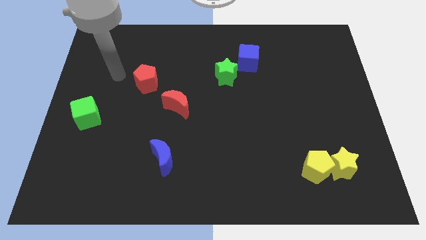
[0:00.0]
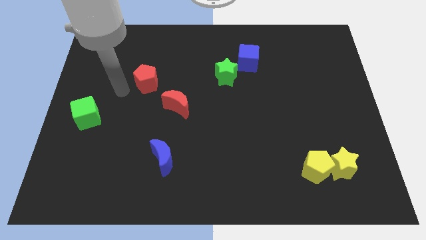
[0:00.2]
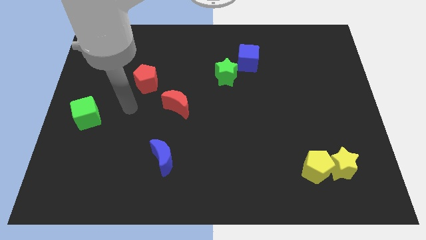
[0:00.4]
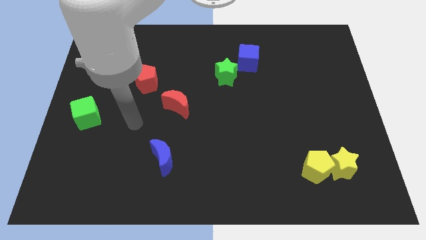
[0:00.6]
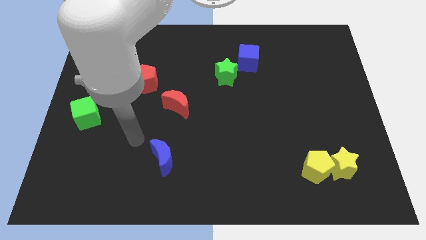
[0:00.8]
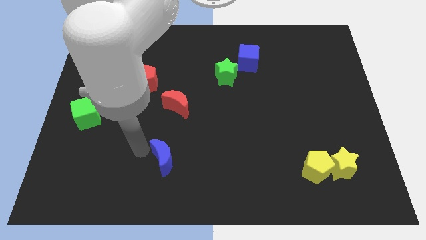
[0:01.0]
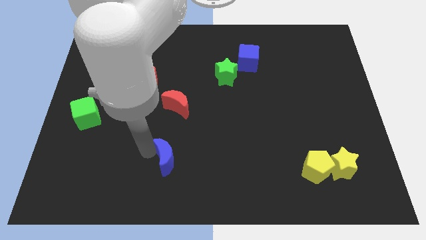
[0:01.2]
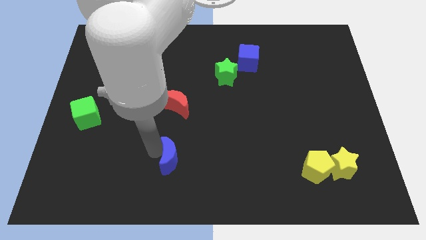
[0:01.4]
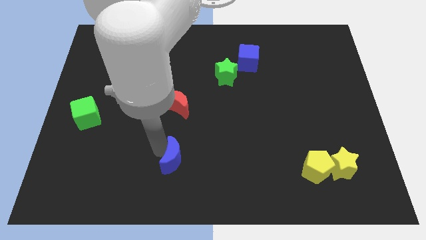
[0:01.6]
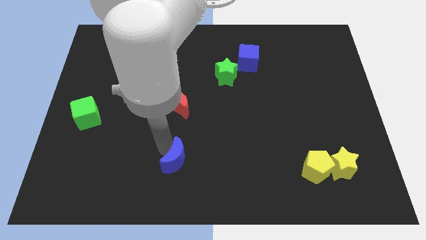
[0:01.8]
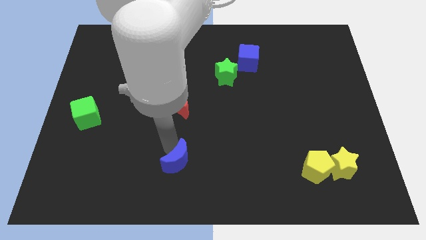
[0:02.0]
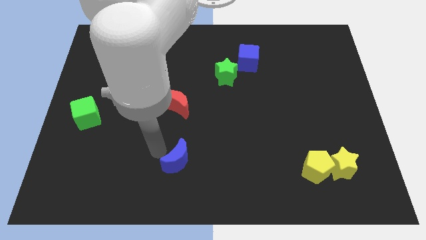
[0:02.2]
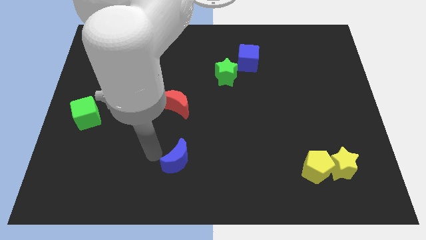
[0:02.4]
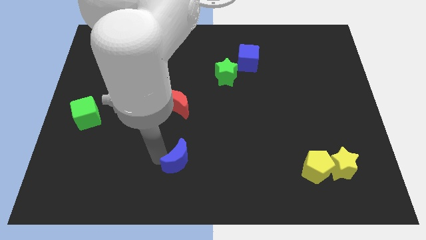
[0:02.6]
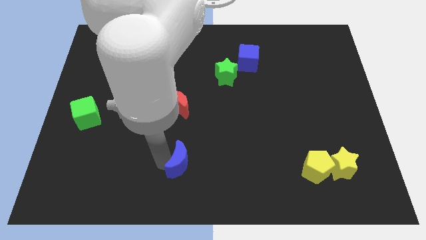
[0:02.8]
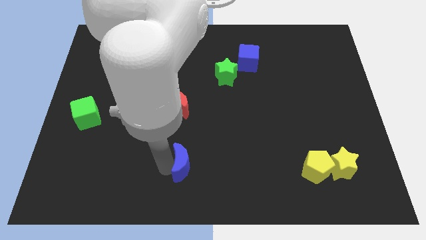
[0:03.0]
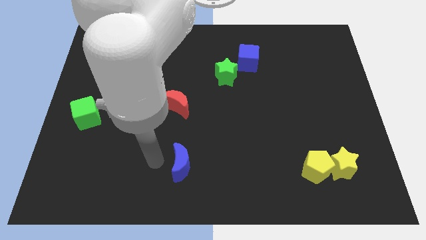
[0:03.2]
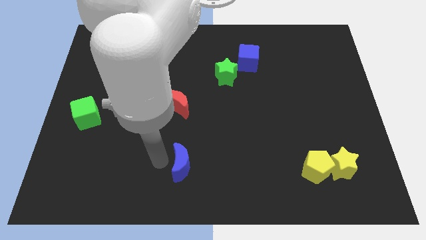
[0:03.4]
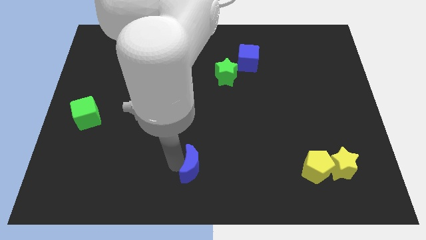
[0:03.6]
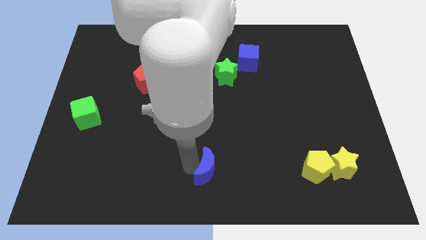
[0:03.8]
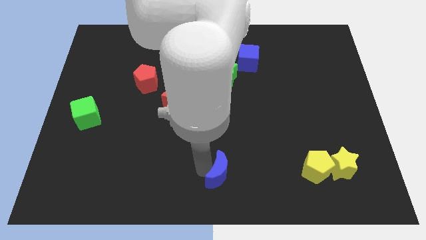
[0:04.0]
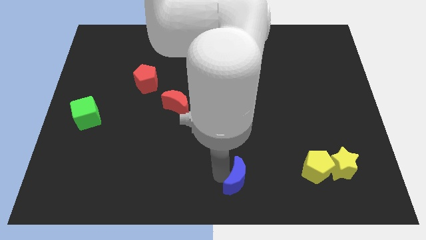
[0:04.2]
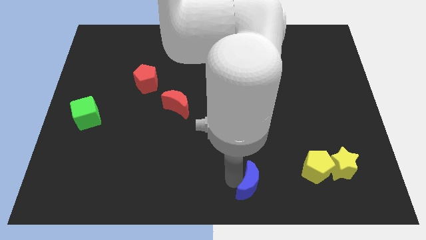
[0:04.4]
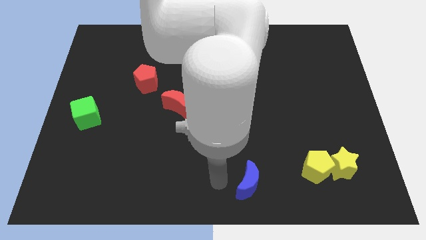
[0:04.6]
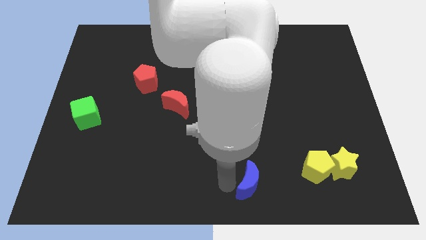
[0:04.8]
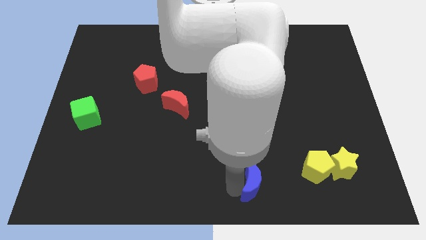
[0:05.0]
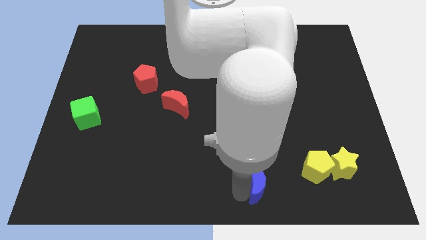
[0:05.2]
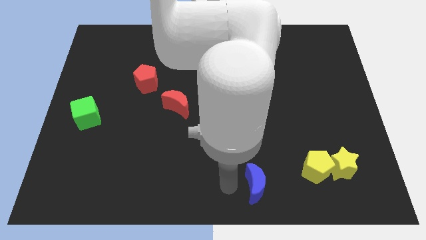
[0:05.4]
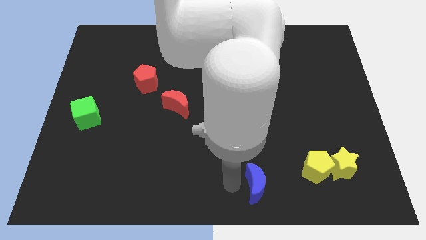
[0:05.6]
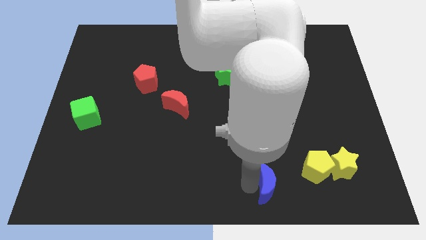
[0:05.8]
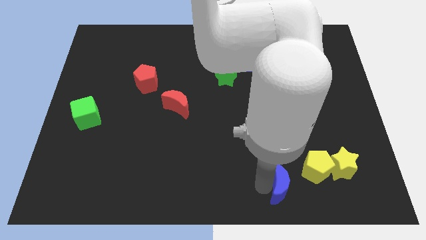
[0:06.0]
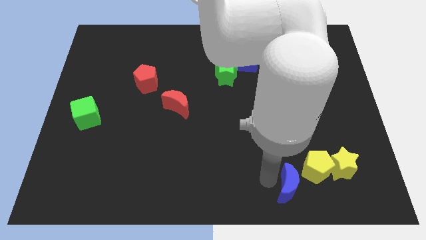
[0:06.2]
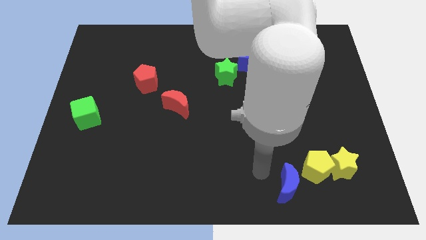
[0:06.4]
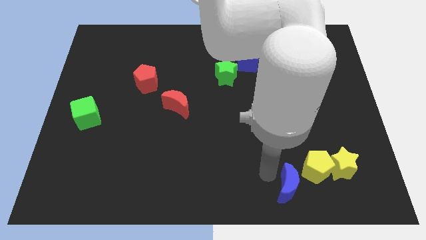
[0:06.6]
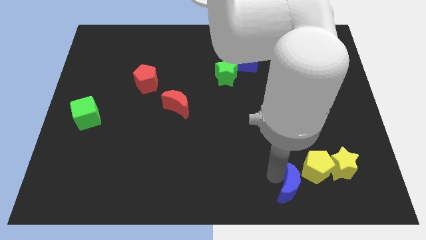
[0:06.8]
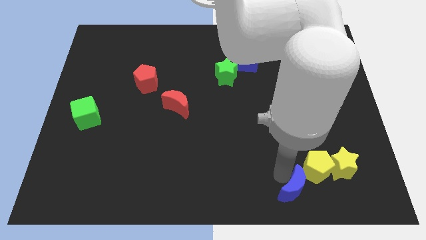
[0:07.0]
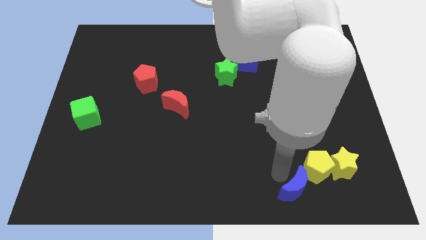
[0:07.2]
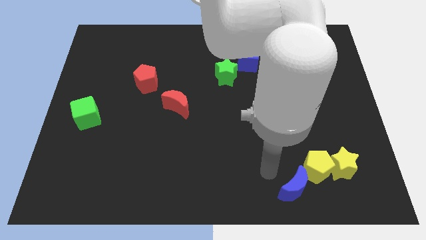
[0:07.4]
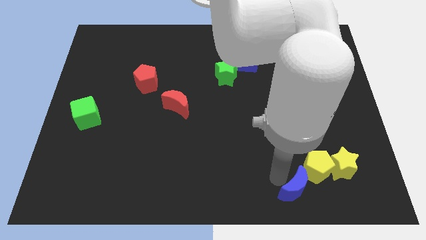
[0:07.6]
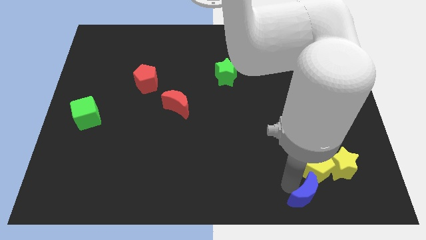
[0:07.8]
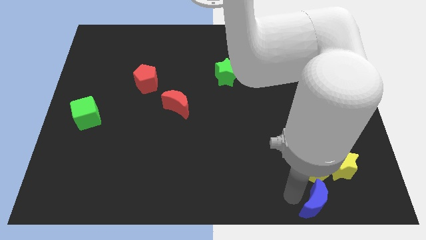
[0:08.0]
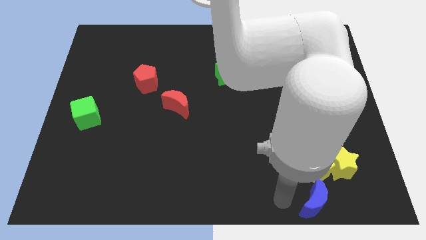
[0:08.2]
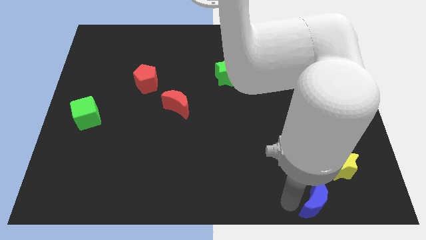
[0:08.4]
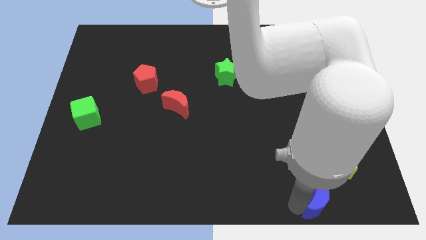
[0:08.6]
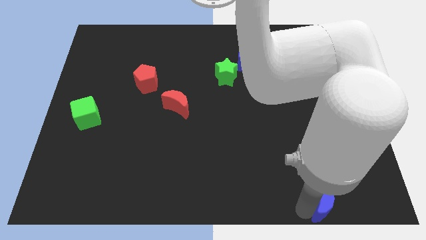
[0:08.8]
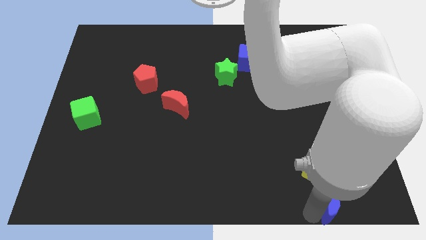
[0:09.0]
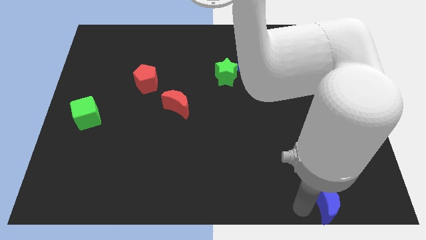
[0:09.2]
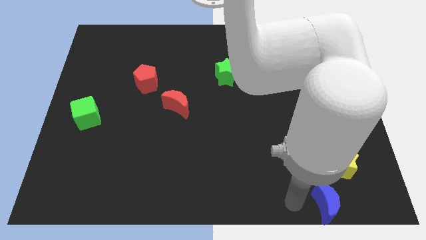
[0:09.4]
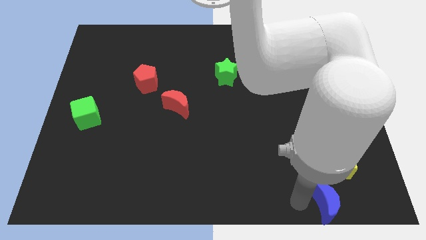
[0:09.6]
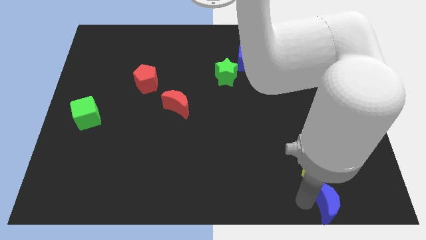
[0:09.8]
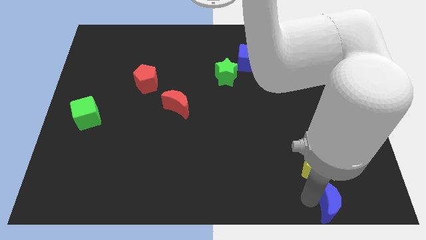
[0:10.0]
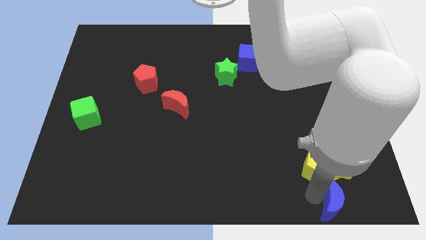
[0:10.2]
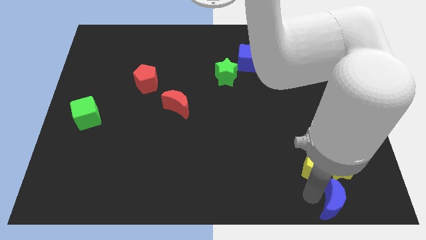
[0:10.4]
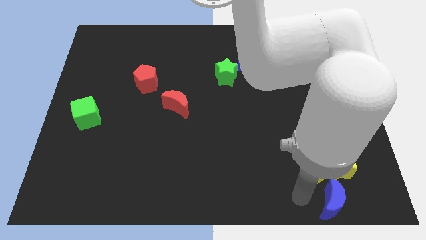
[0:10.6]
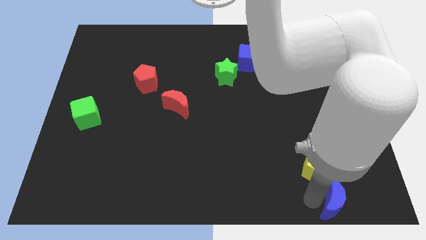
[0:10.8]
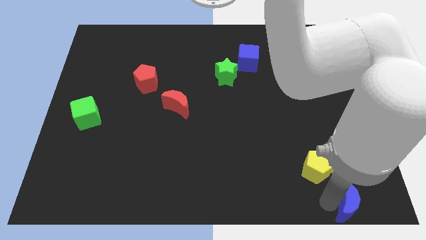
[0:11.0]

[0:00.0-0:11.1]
put the blue moon to the bottom right corner

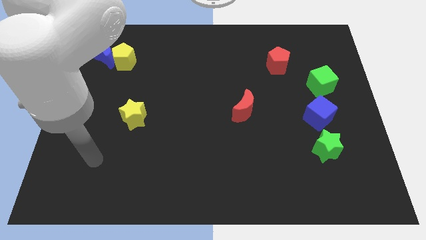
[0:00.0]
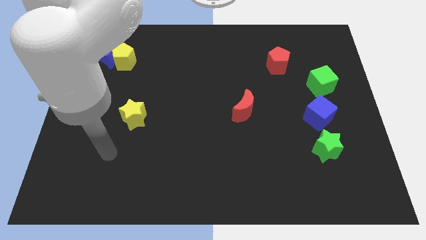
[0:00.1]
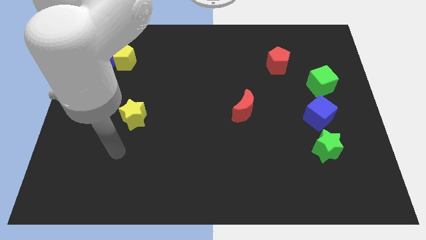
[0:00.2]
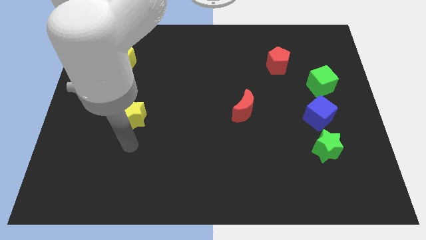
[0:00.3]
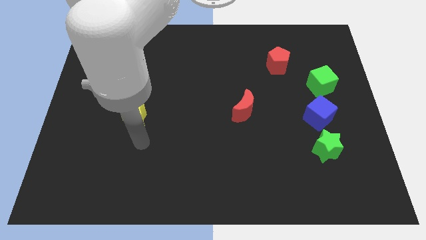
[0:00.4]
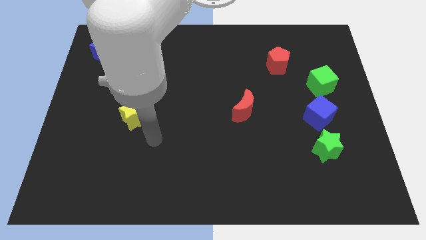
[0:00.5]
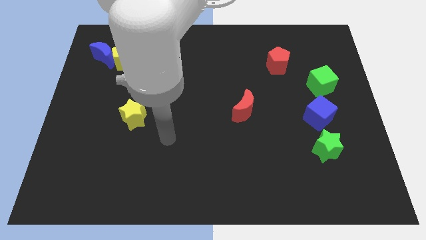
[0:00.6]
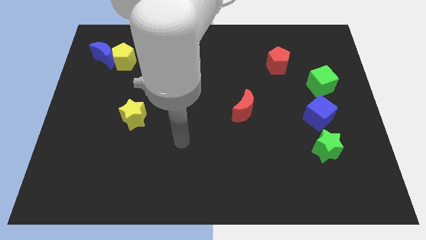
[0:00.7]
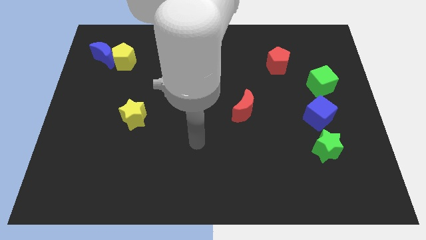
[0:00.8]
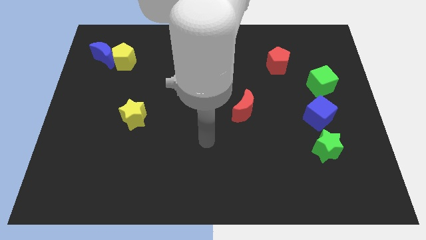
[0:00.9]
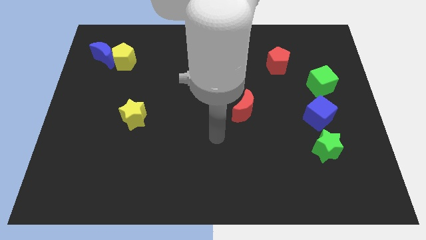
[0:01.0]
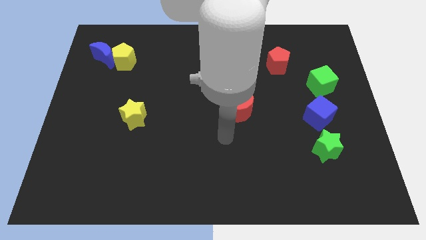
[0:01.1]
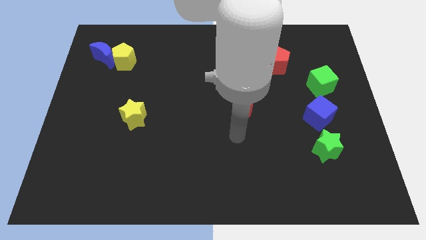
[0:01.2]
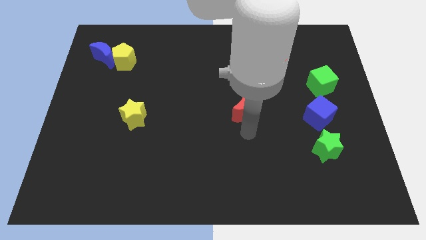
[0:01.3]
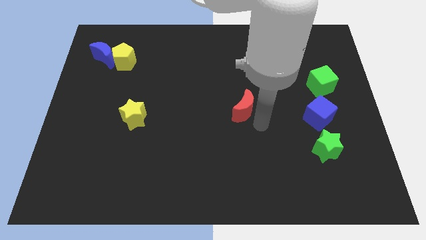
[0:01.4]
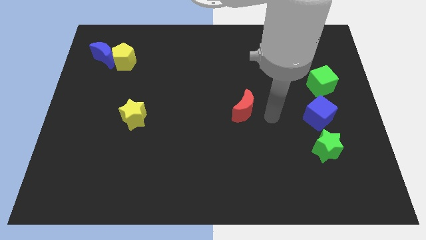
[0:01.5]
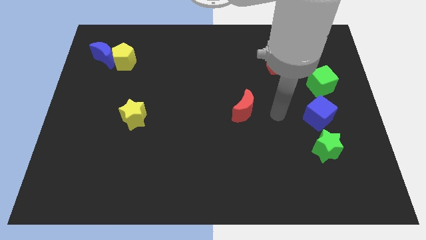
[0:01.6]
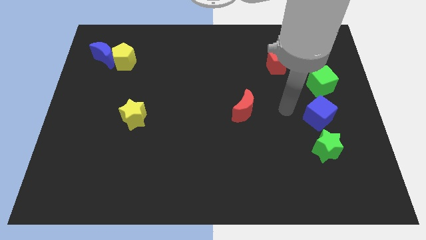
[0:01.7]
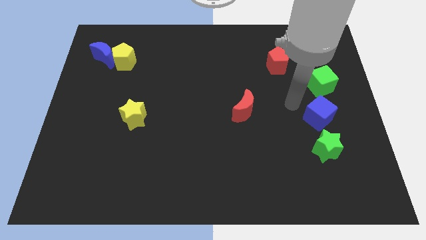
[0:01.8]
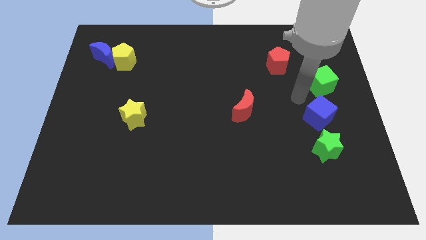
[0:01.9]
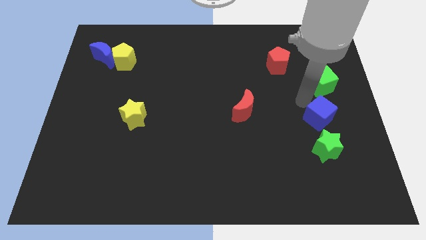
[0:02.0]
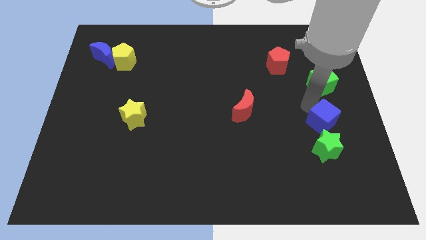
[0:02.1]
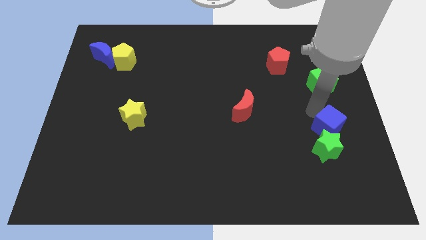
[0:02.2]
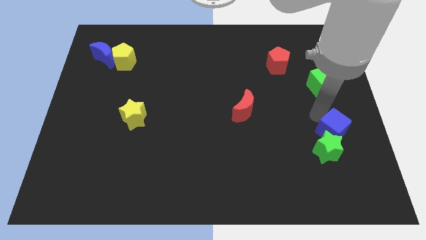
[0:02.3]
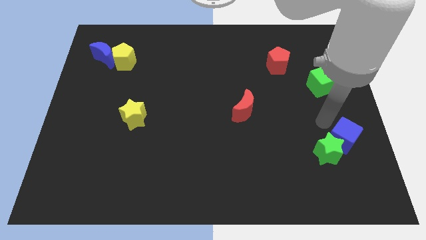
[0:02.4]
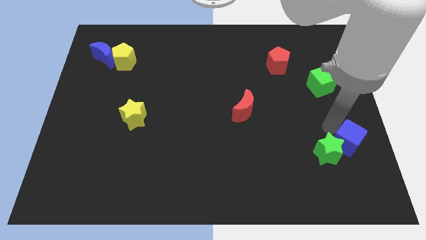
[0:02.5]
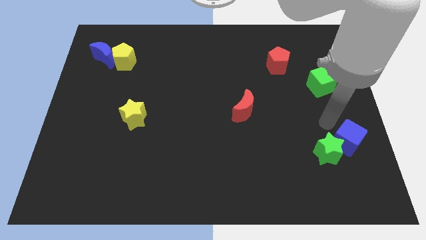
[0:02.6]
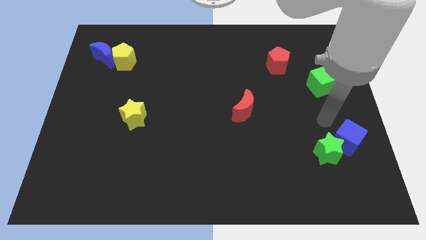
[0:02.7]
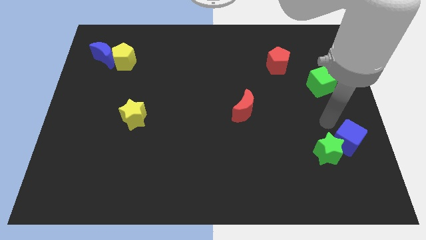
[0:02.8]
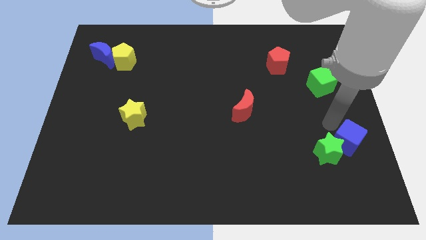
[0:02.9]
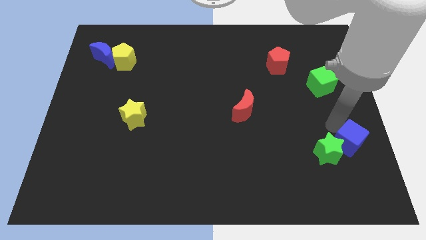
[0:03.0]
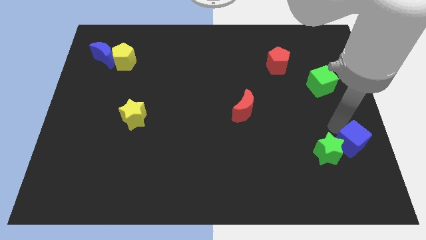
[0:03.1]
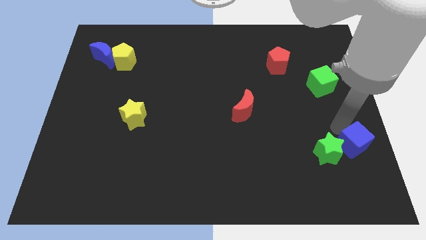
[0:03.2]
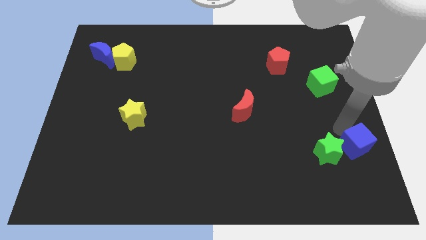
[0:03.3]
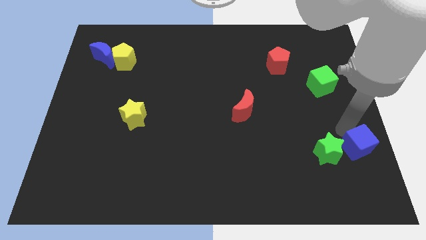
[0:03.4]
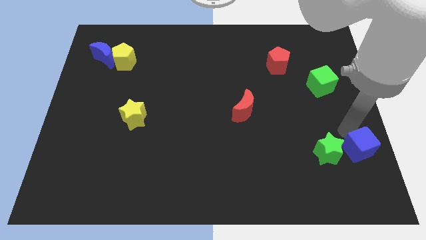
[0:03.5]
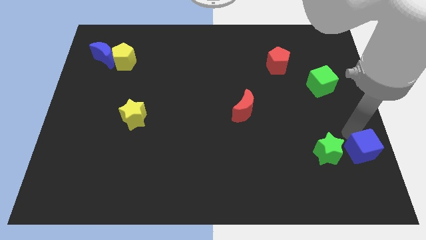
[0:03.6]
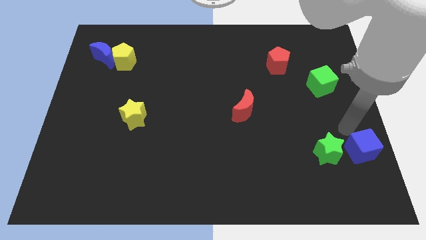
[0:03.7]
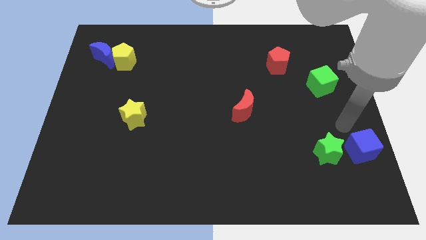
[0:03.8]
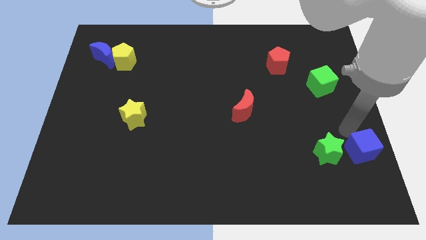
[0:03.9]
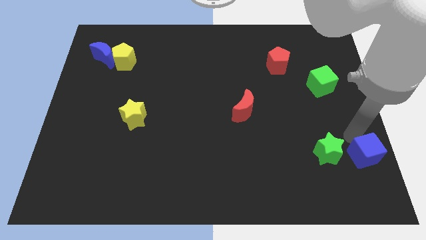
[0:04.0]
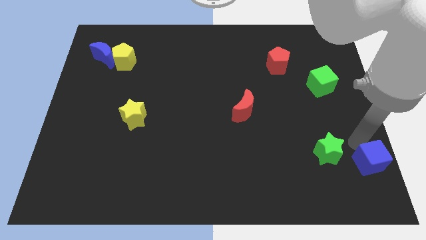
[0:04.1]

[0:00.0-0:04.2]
slide the blue cube to the bottom right
